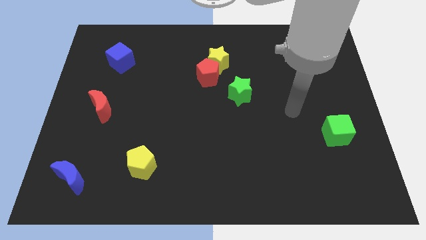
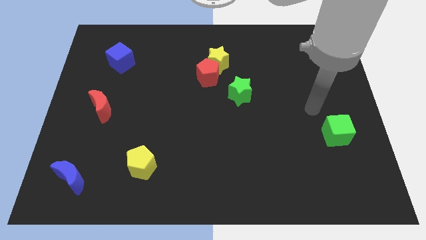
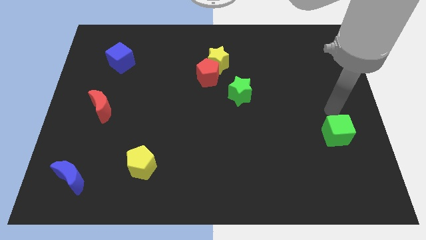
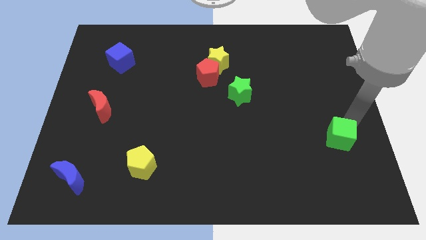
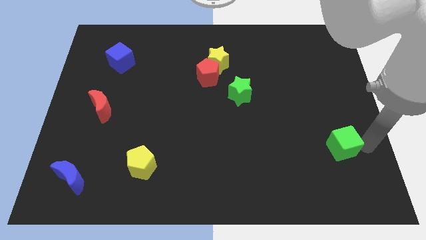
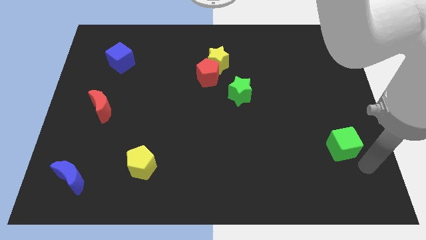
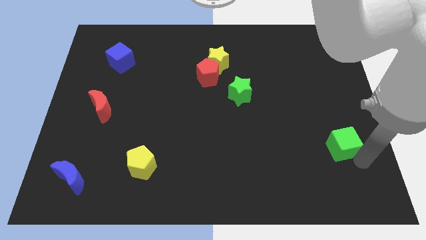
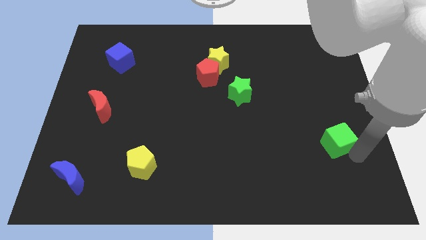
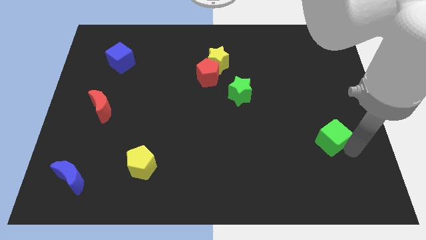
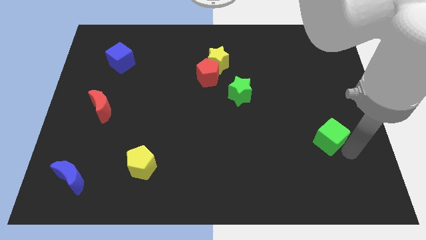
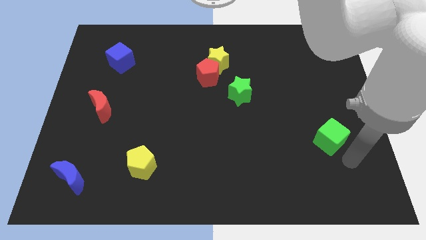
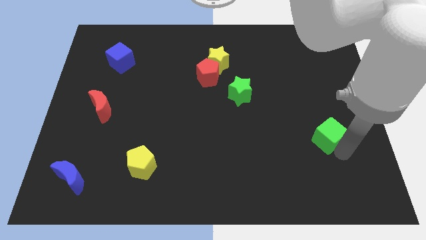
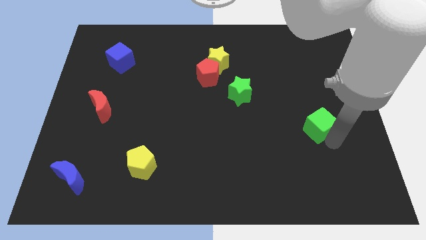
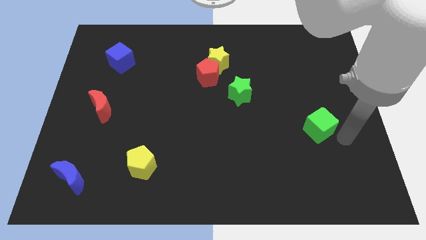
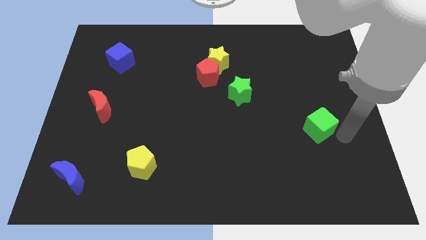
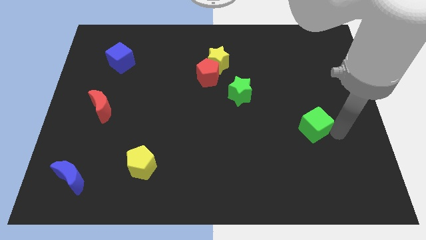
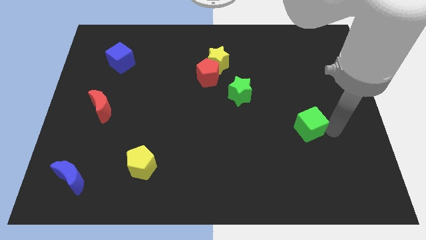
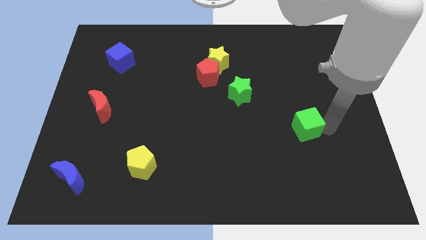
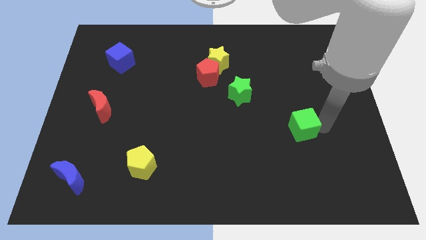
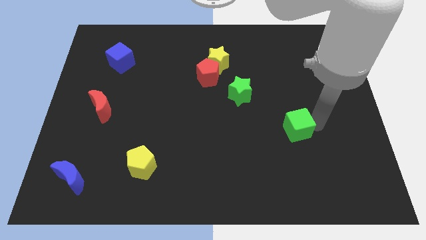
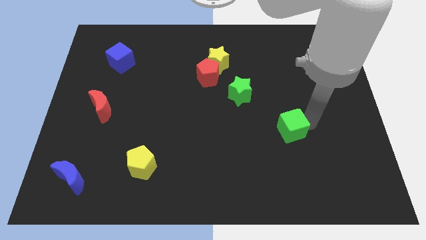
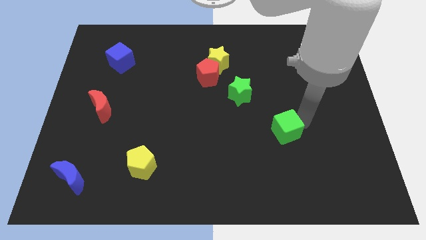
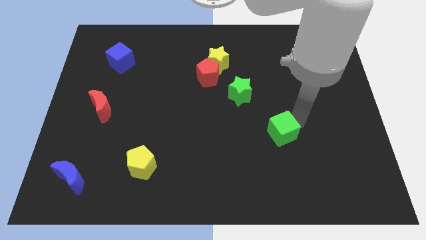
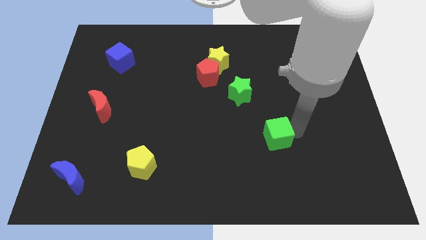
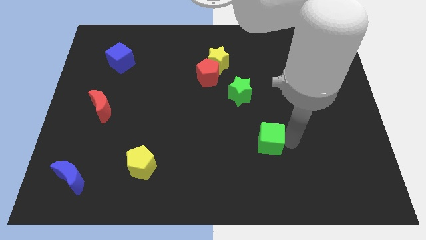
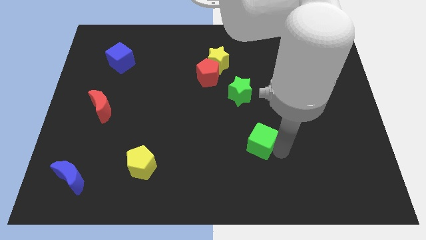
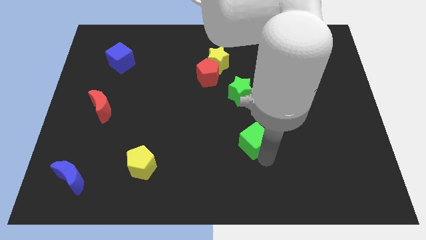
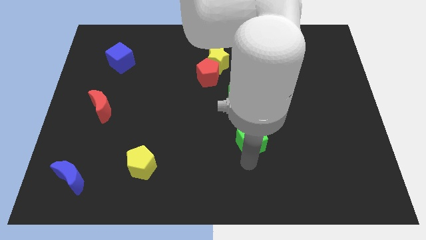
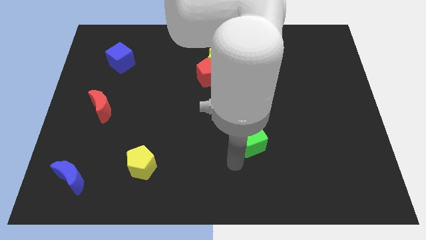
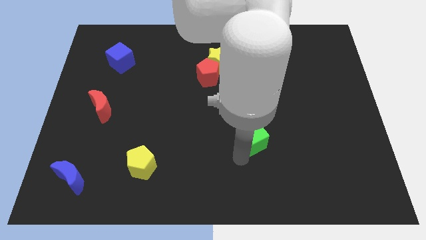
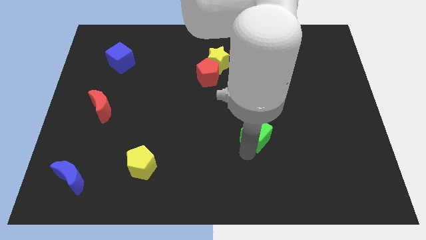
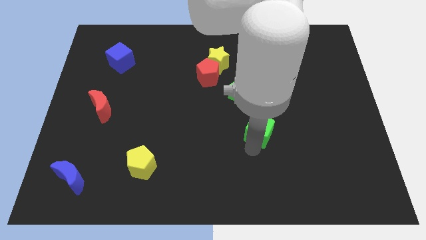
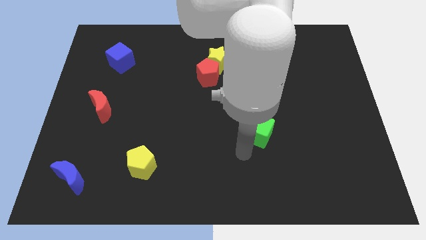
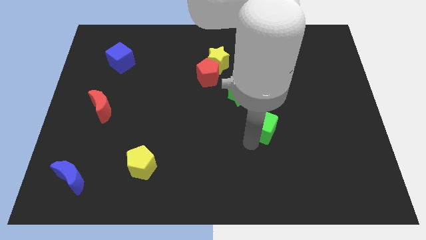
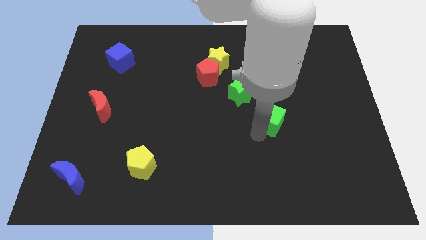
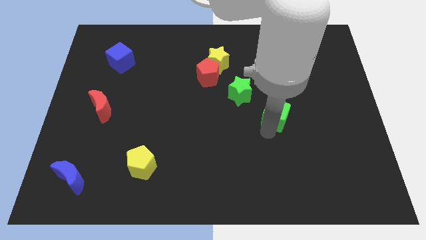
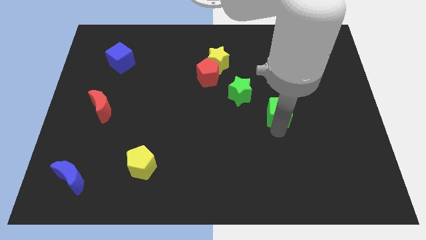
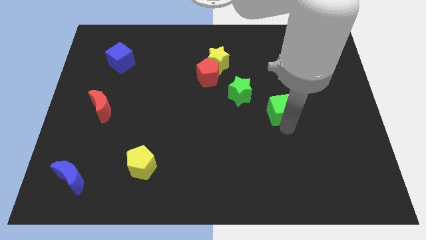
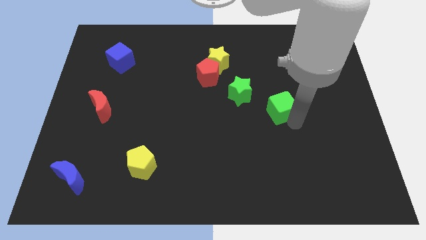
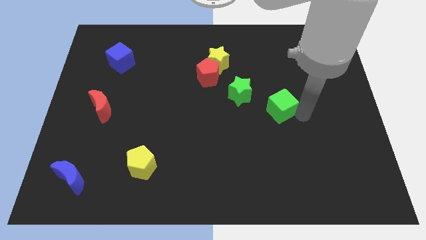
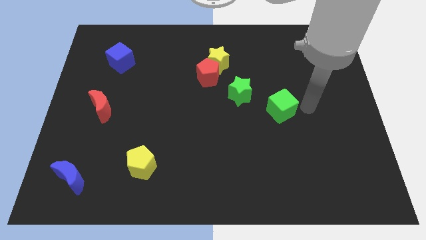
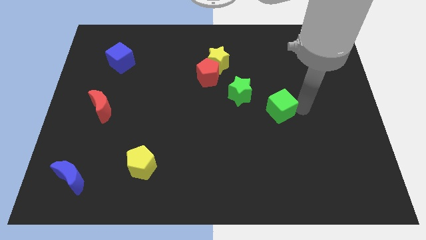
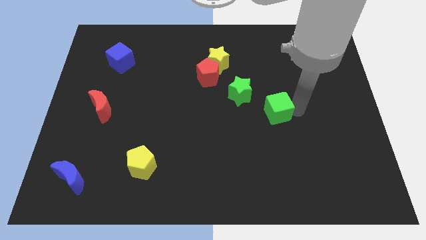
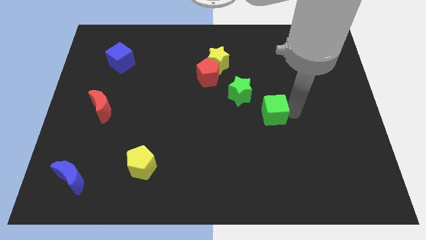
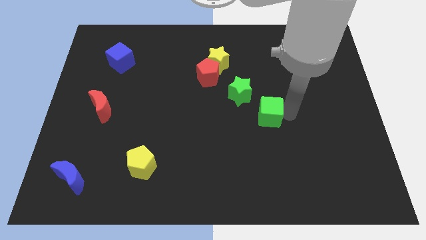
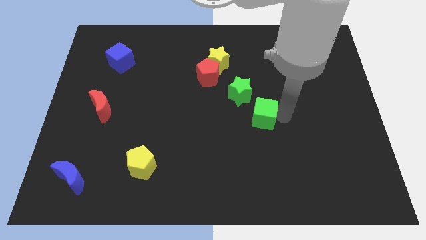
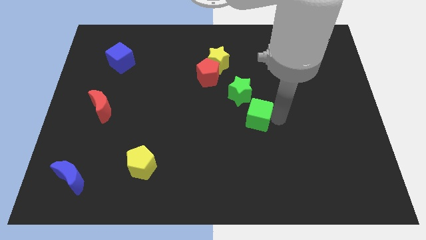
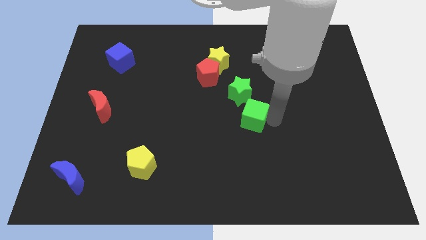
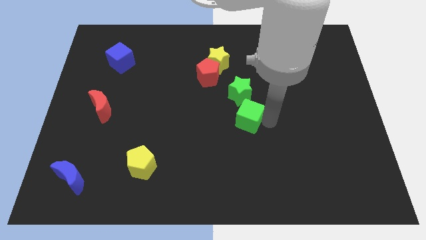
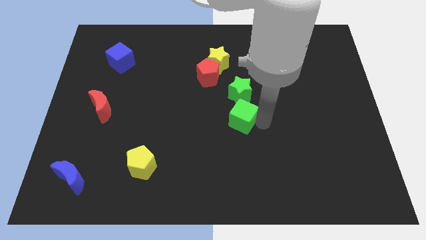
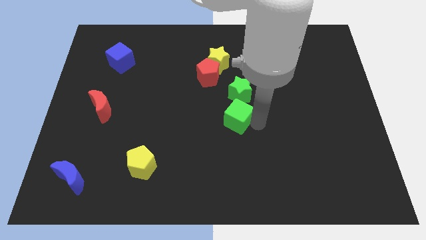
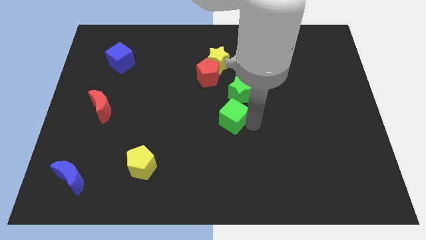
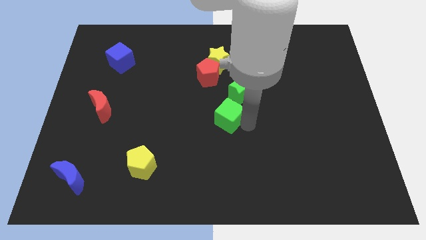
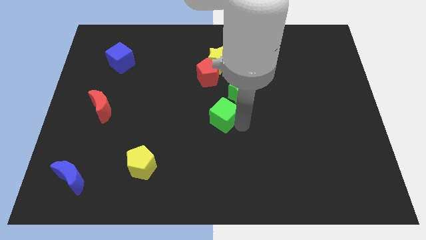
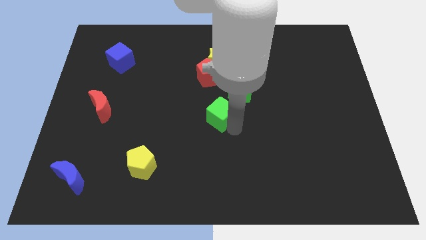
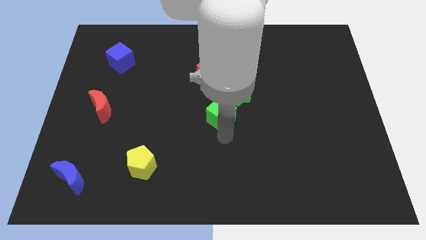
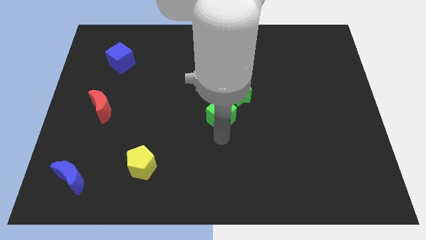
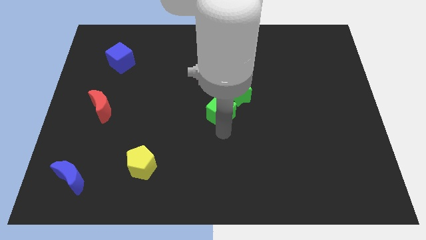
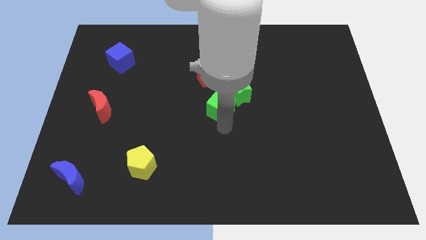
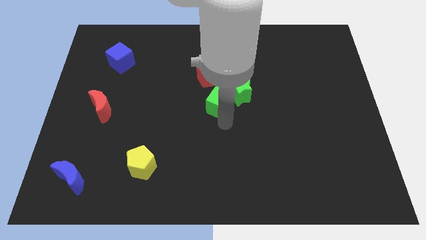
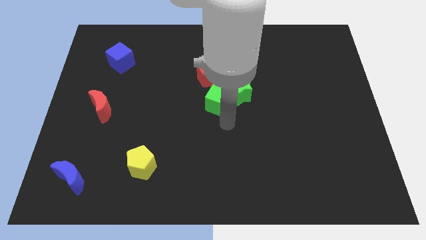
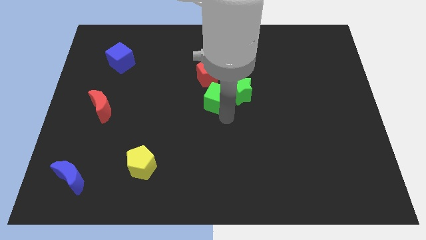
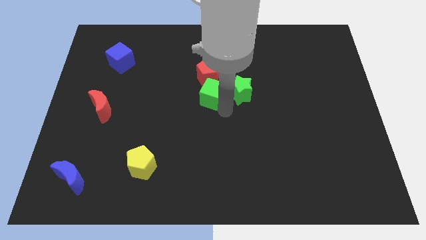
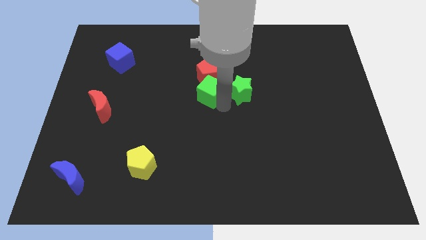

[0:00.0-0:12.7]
push the green cube close to the red pentagon

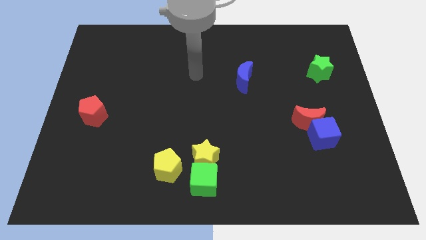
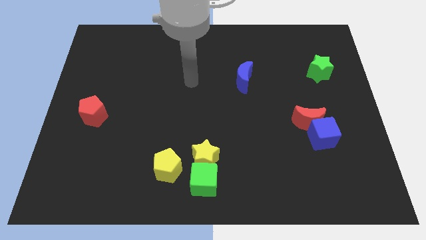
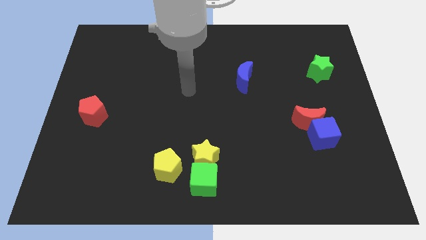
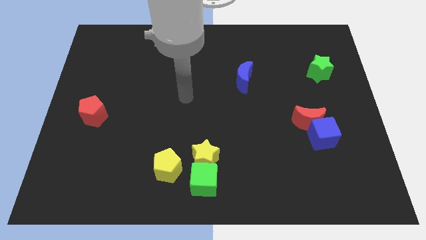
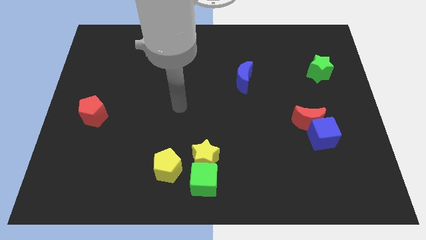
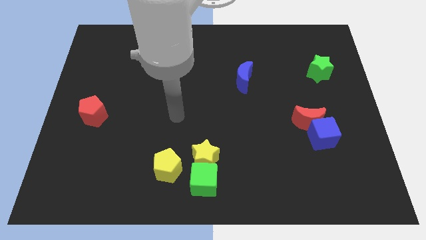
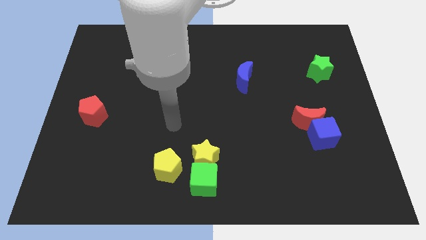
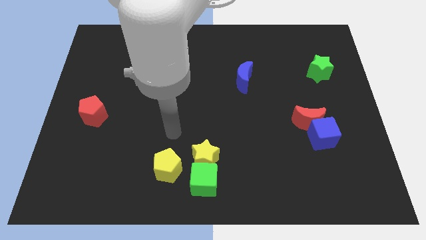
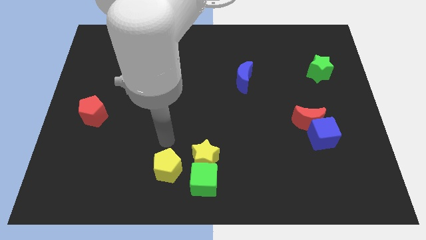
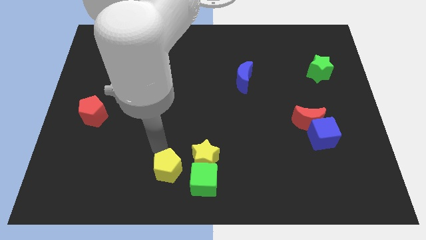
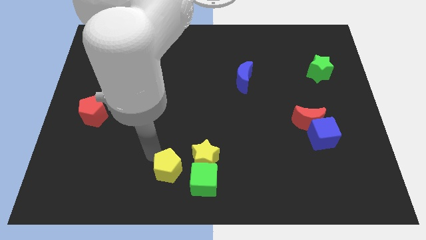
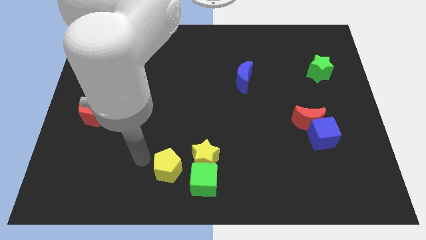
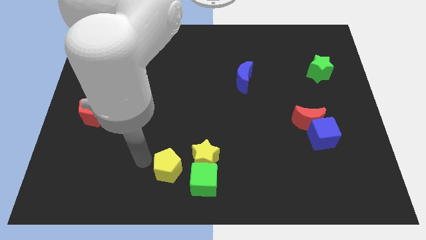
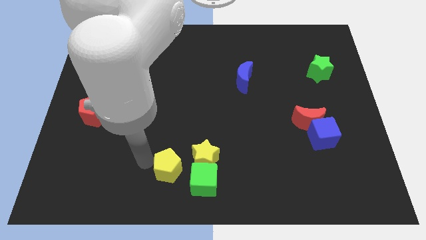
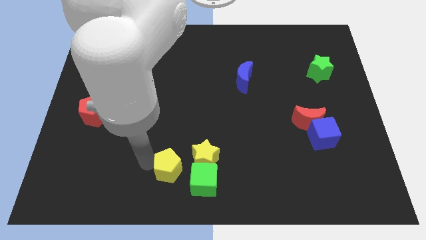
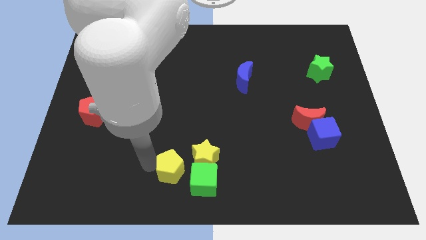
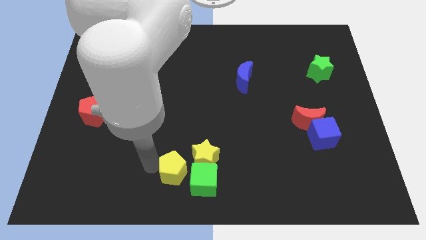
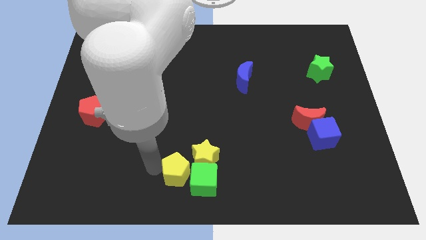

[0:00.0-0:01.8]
move the yellow pentagon close to the green cube
